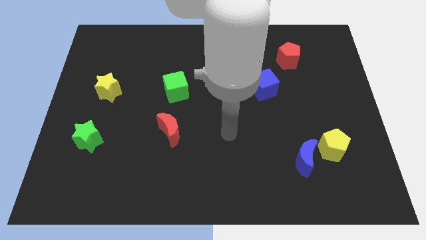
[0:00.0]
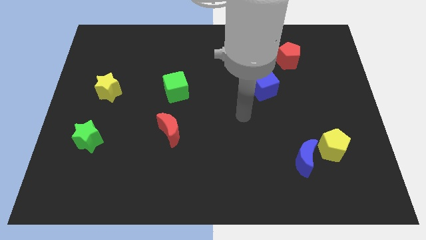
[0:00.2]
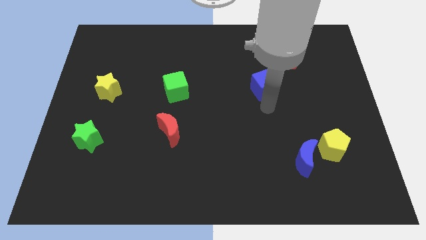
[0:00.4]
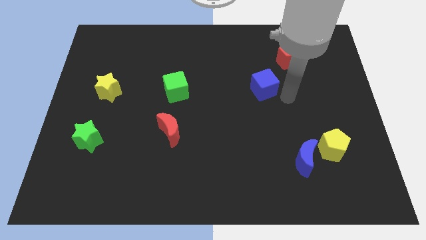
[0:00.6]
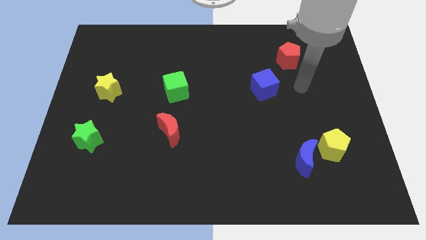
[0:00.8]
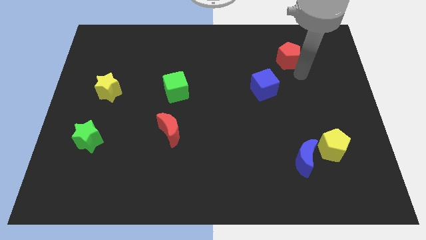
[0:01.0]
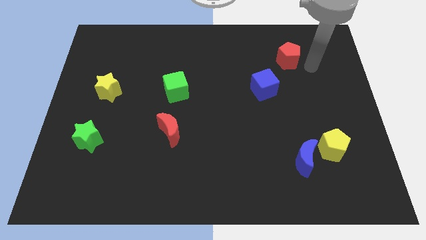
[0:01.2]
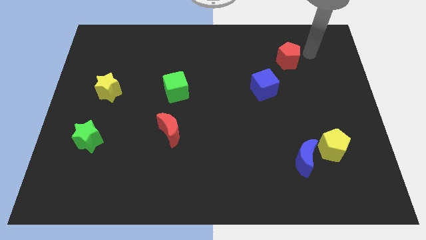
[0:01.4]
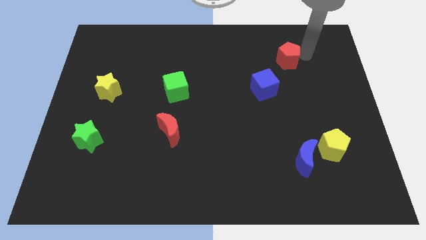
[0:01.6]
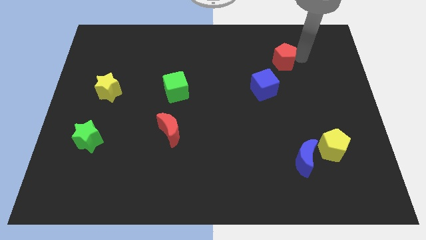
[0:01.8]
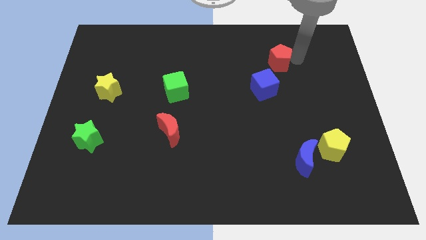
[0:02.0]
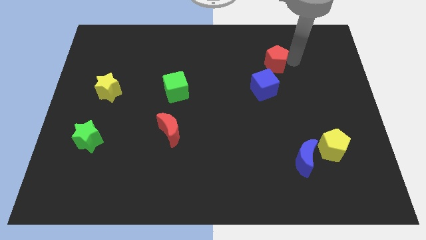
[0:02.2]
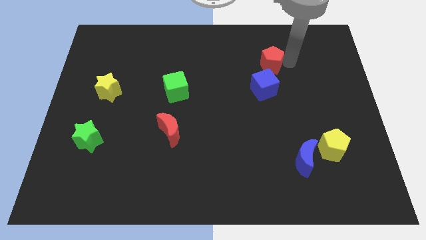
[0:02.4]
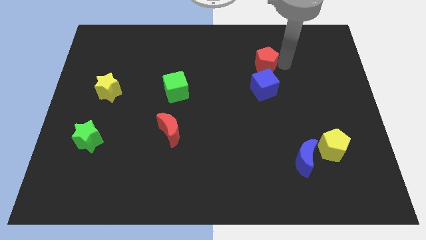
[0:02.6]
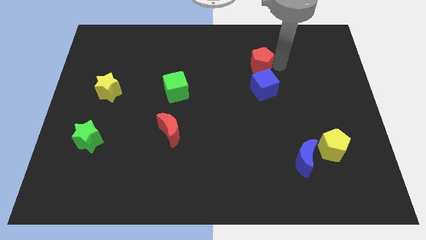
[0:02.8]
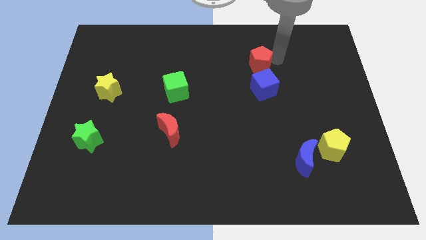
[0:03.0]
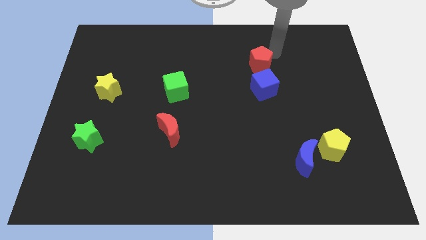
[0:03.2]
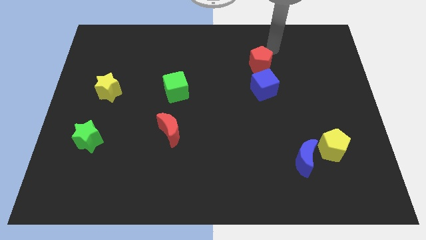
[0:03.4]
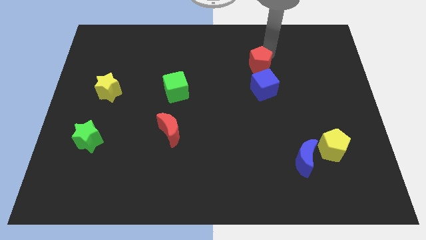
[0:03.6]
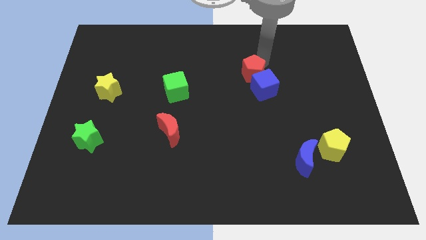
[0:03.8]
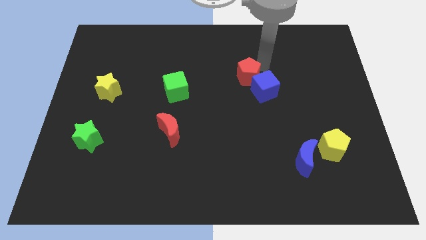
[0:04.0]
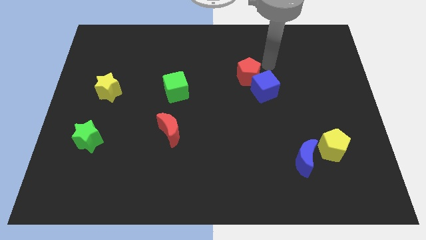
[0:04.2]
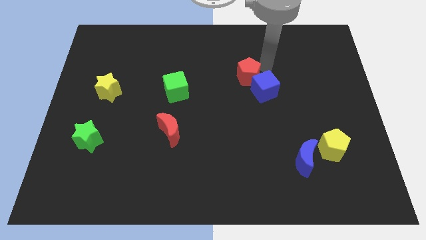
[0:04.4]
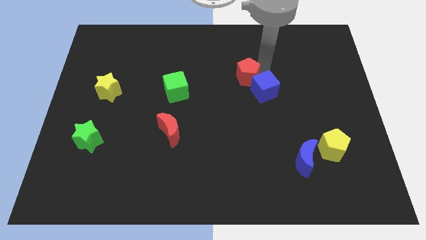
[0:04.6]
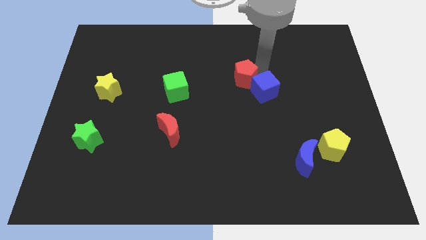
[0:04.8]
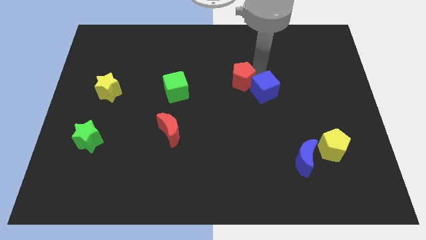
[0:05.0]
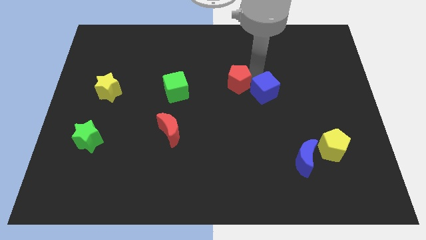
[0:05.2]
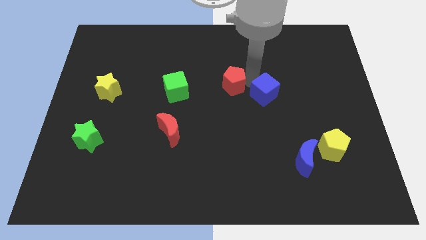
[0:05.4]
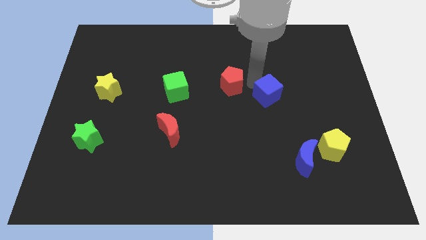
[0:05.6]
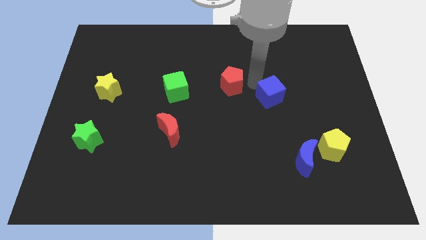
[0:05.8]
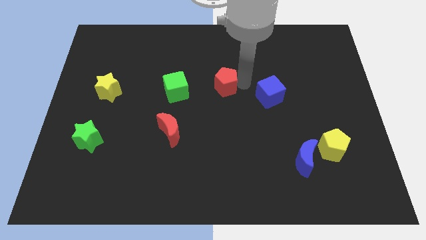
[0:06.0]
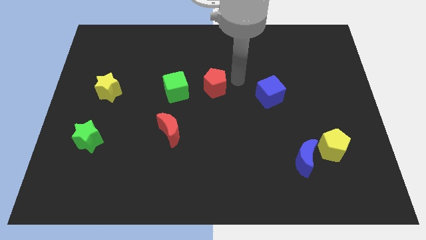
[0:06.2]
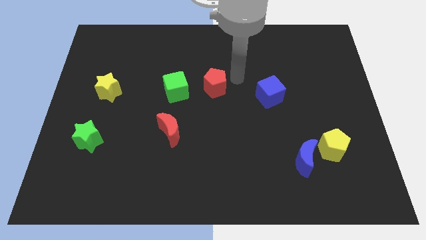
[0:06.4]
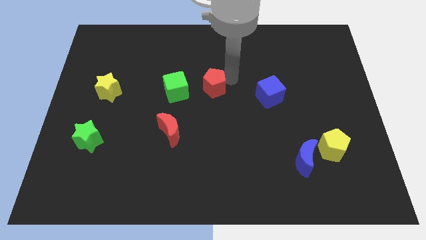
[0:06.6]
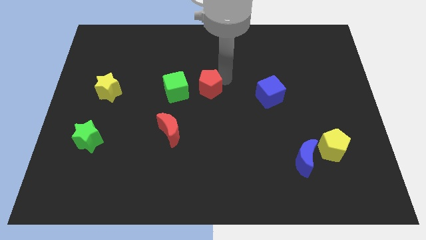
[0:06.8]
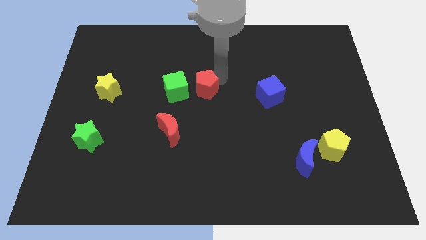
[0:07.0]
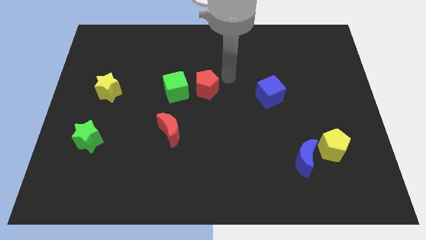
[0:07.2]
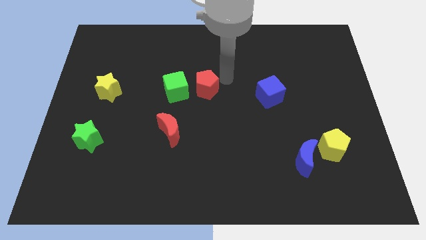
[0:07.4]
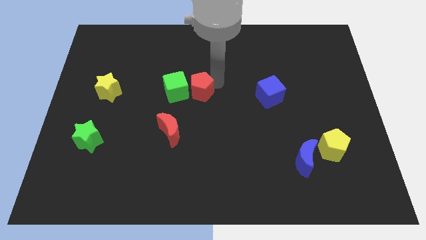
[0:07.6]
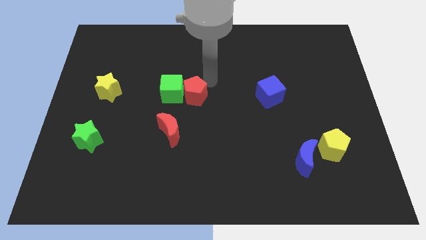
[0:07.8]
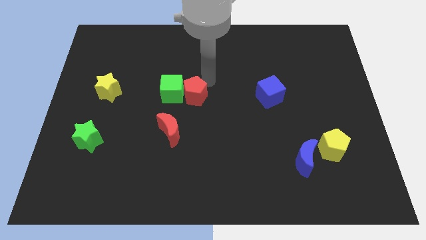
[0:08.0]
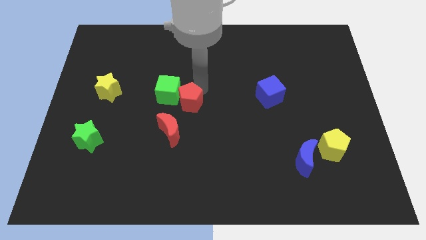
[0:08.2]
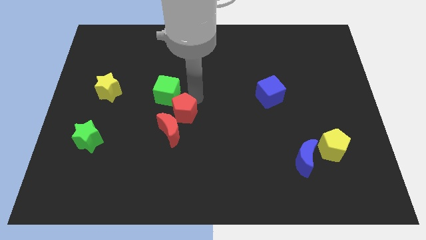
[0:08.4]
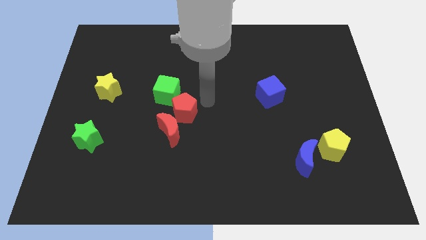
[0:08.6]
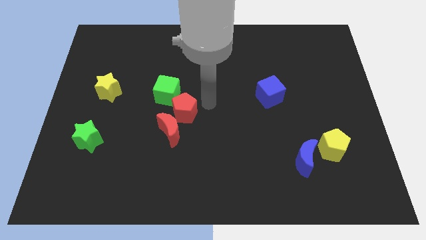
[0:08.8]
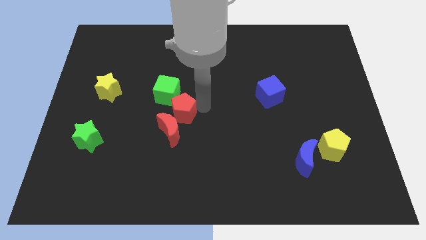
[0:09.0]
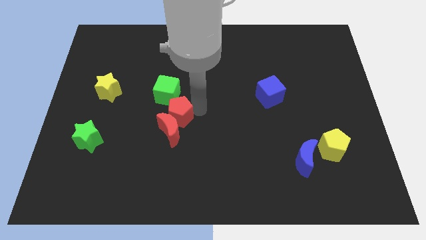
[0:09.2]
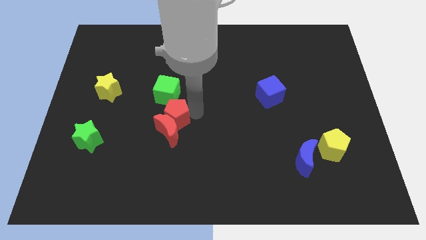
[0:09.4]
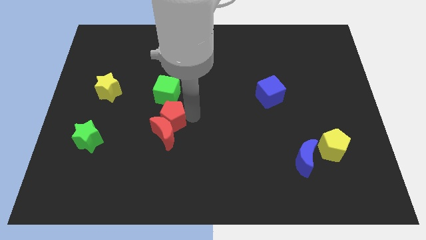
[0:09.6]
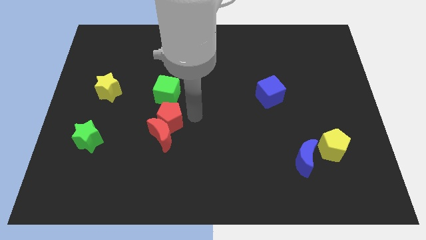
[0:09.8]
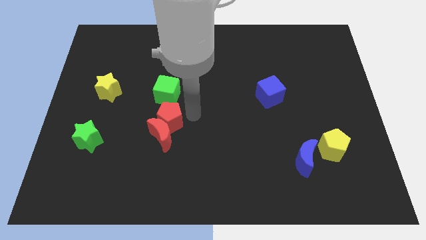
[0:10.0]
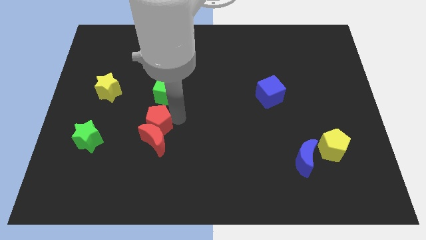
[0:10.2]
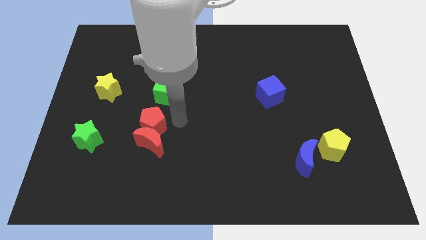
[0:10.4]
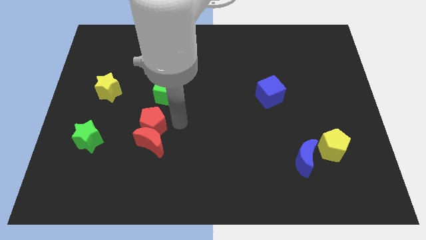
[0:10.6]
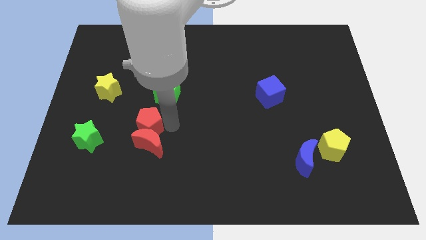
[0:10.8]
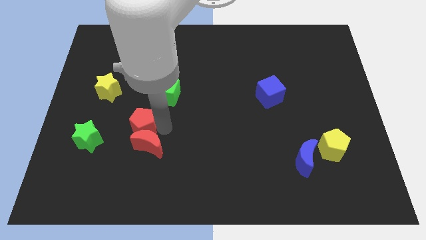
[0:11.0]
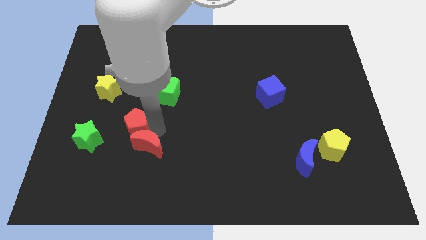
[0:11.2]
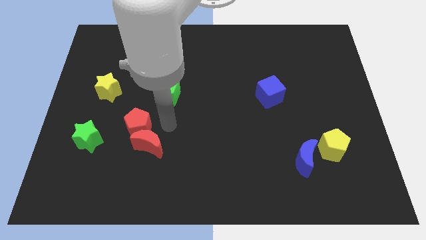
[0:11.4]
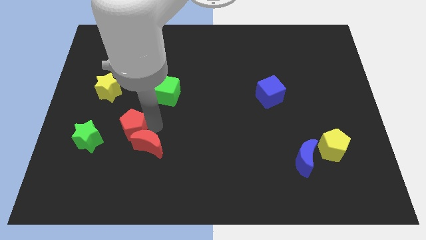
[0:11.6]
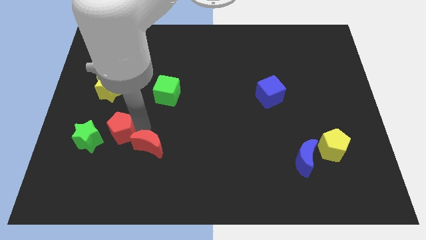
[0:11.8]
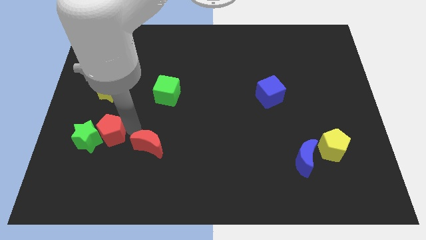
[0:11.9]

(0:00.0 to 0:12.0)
push the red pentagon next to the green star

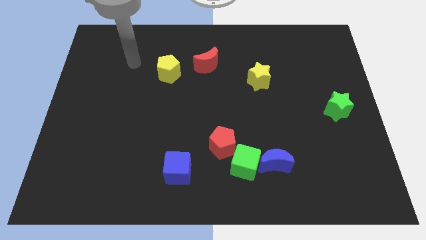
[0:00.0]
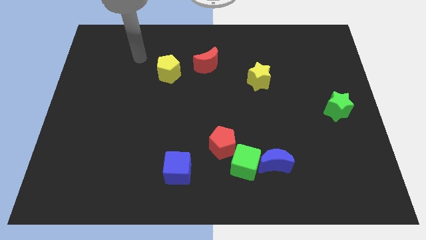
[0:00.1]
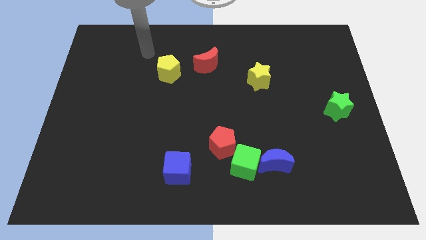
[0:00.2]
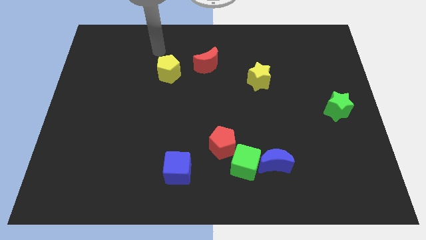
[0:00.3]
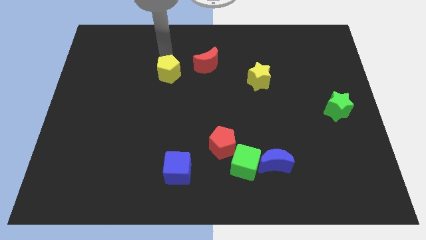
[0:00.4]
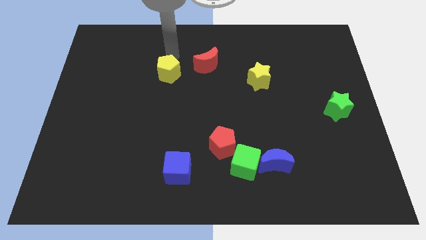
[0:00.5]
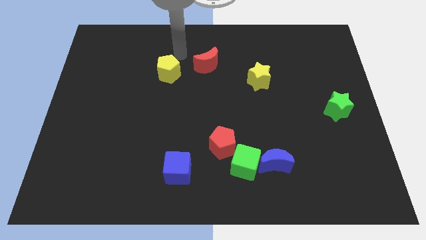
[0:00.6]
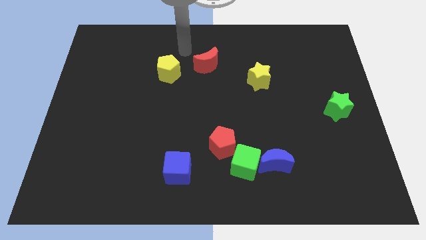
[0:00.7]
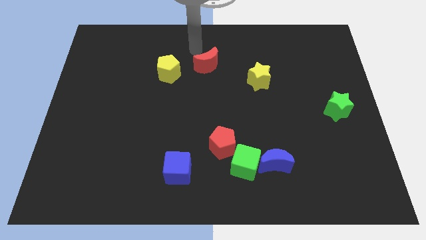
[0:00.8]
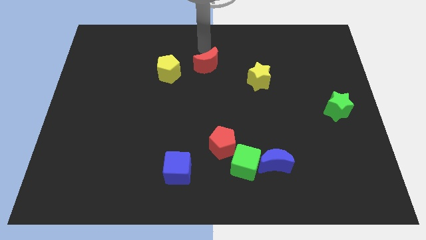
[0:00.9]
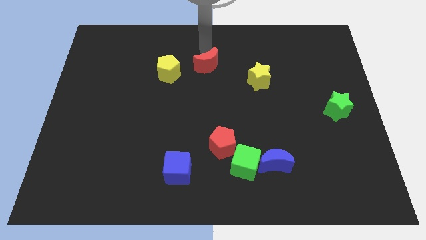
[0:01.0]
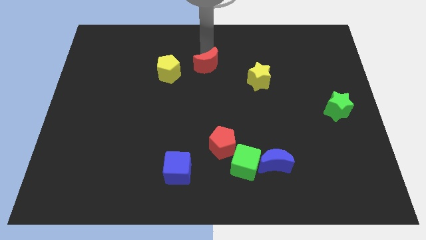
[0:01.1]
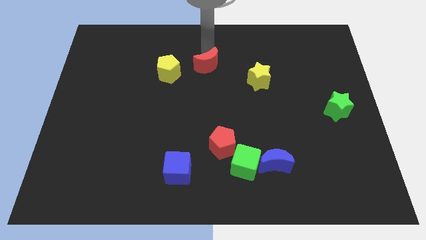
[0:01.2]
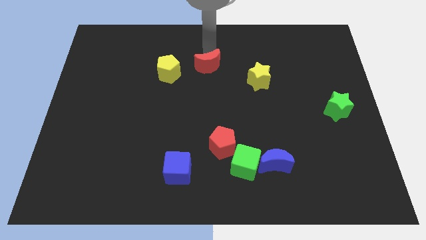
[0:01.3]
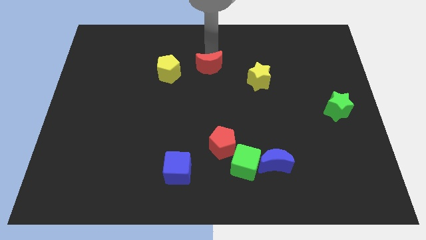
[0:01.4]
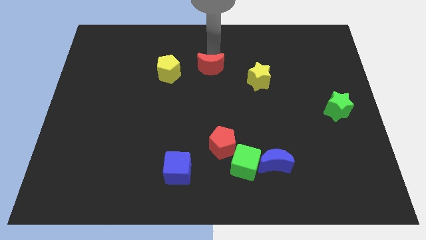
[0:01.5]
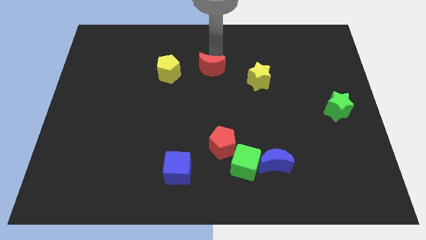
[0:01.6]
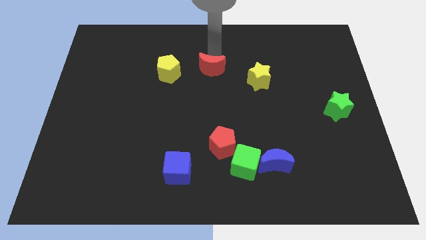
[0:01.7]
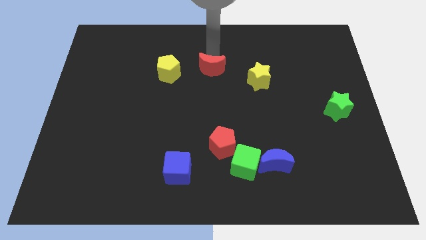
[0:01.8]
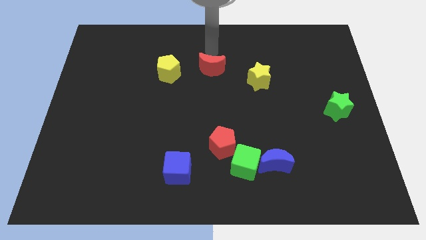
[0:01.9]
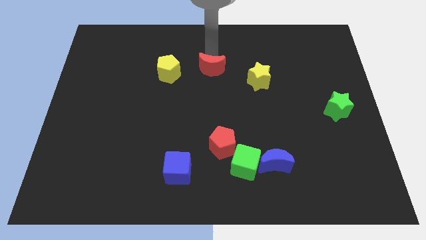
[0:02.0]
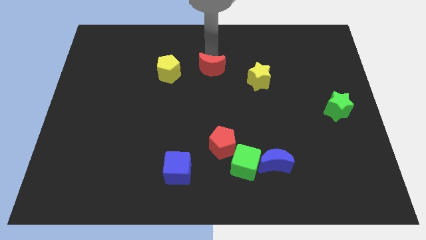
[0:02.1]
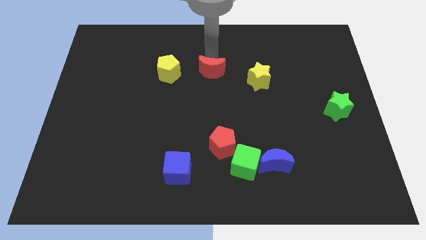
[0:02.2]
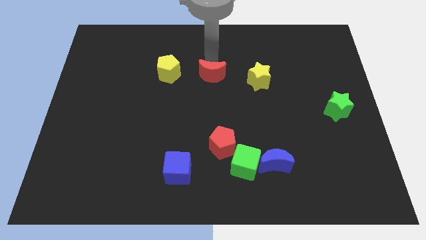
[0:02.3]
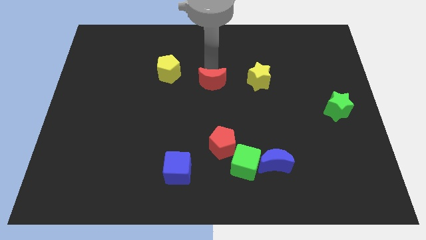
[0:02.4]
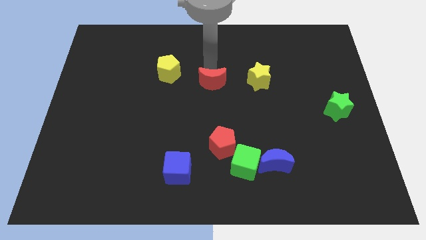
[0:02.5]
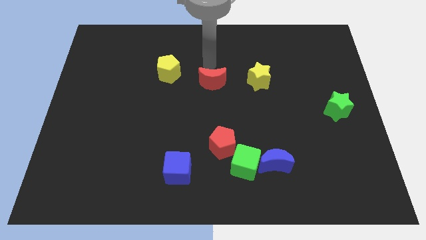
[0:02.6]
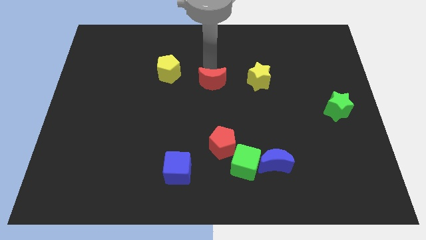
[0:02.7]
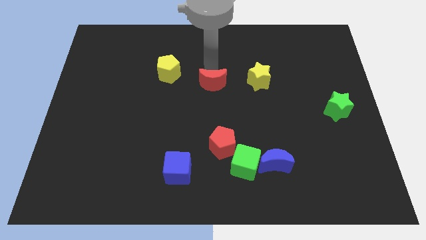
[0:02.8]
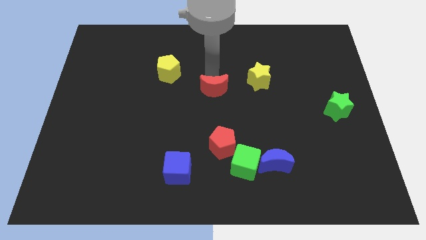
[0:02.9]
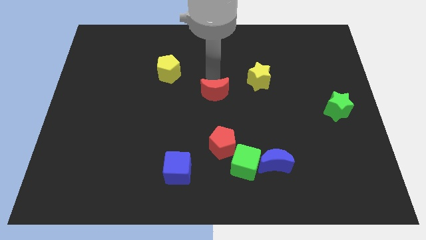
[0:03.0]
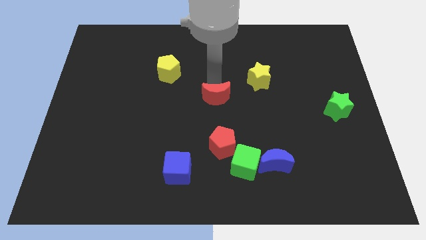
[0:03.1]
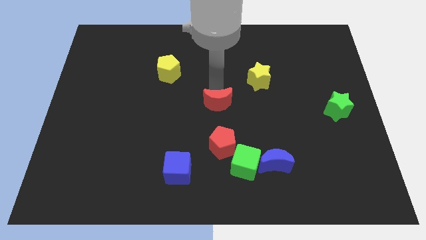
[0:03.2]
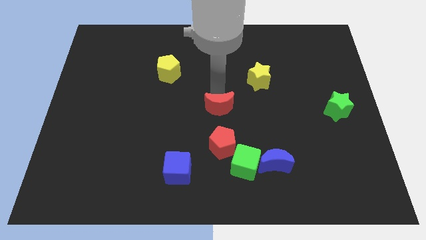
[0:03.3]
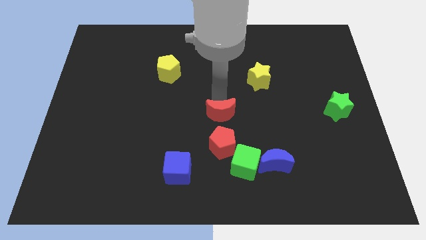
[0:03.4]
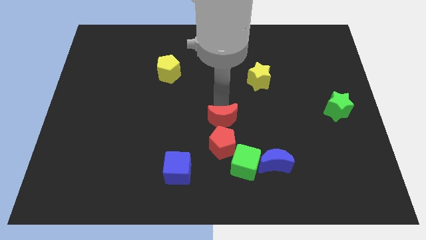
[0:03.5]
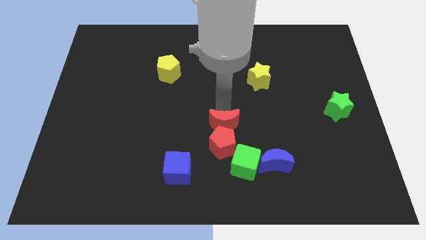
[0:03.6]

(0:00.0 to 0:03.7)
move the red moon towards the red pentagon
